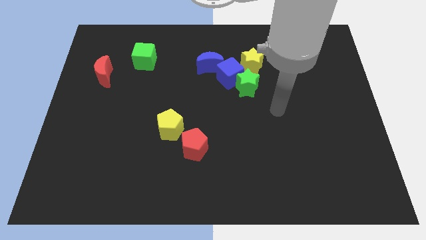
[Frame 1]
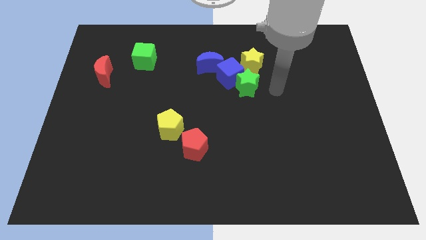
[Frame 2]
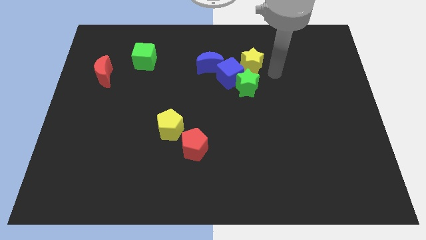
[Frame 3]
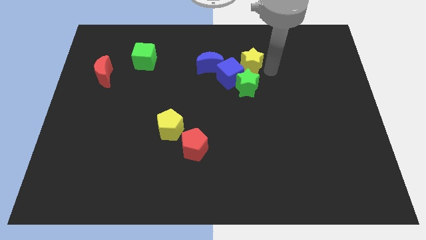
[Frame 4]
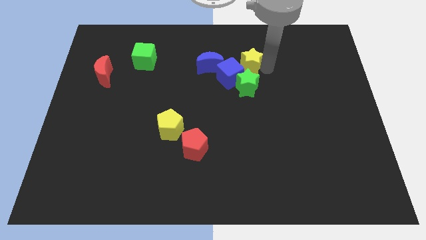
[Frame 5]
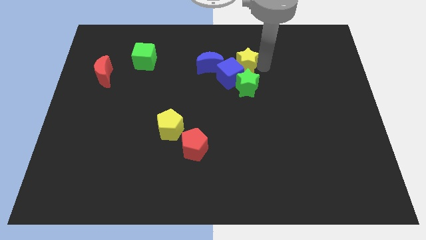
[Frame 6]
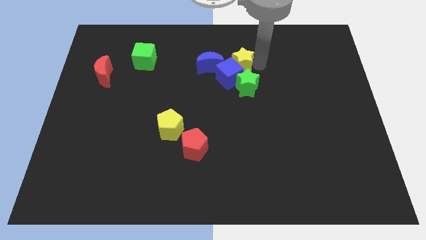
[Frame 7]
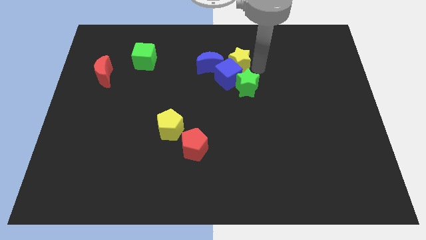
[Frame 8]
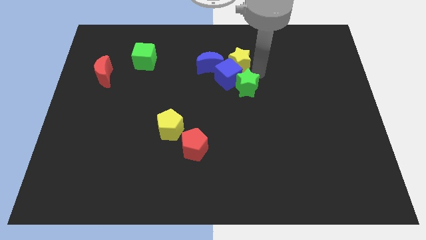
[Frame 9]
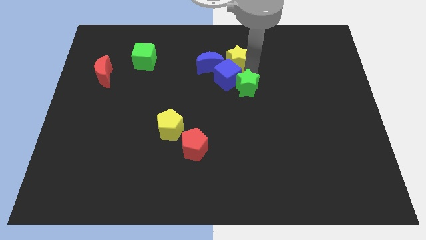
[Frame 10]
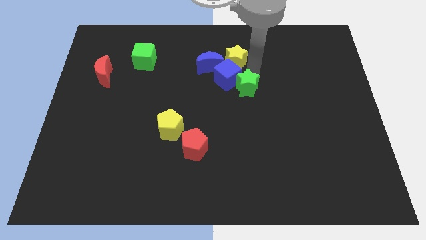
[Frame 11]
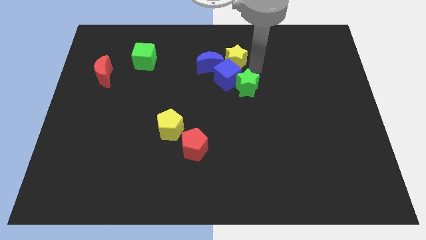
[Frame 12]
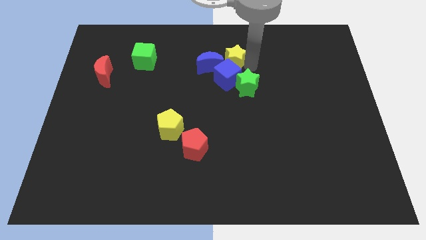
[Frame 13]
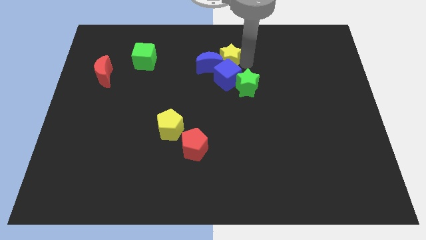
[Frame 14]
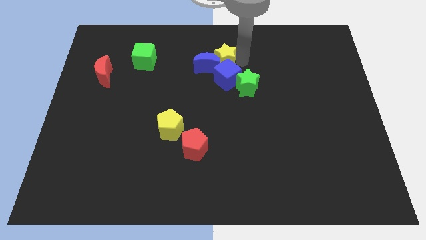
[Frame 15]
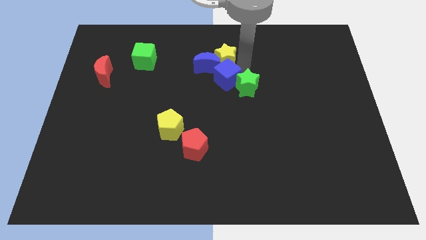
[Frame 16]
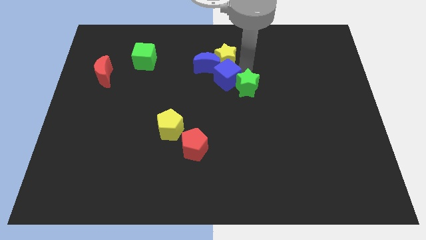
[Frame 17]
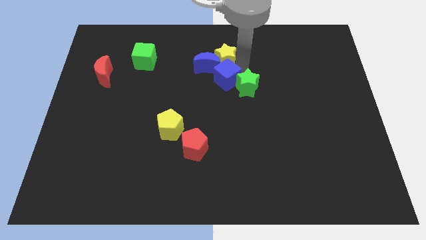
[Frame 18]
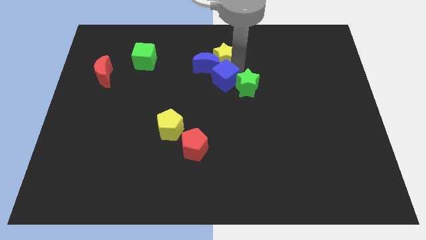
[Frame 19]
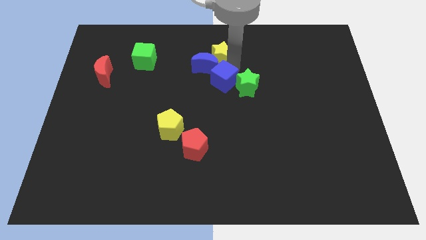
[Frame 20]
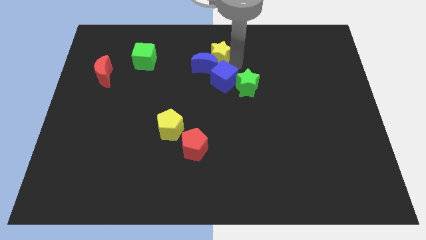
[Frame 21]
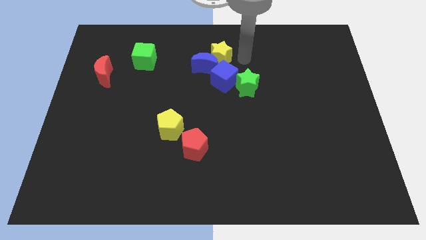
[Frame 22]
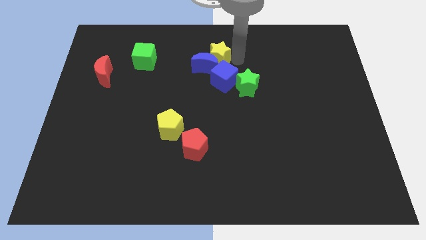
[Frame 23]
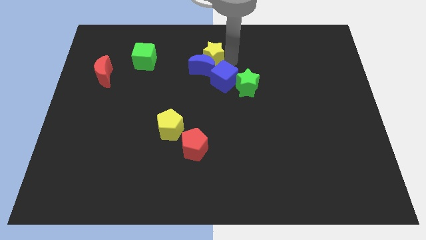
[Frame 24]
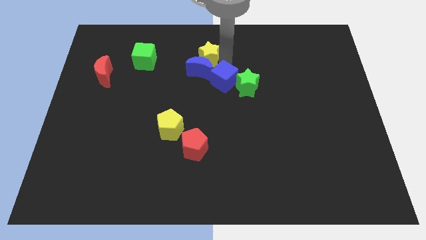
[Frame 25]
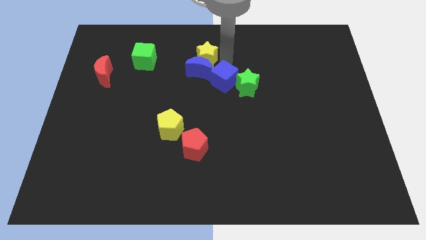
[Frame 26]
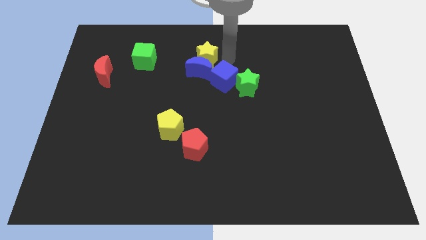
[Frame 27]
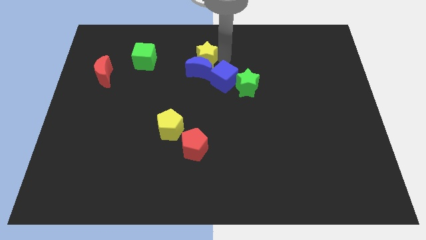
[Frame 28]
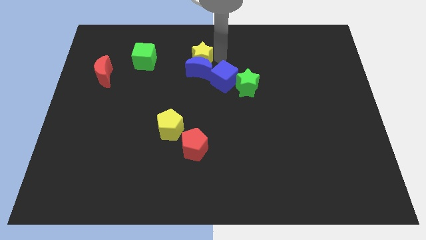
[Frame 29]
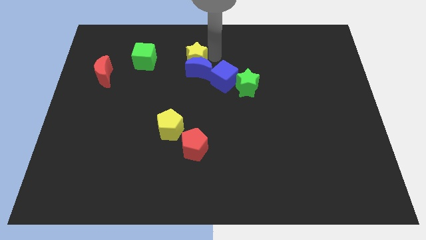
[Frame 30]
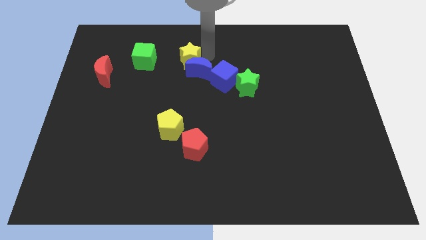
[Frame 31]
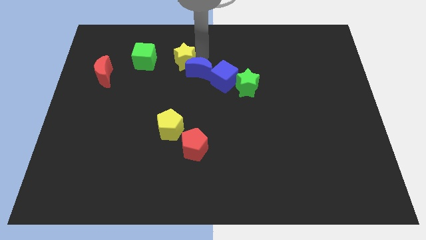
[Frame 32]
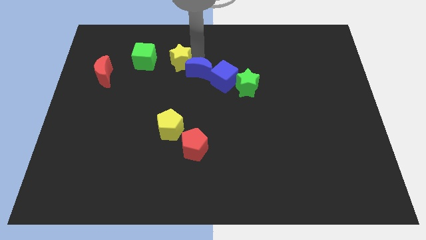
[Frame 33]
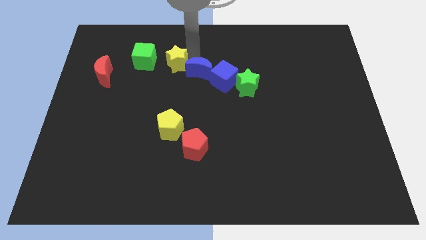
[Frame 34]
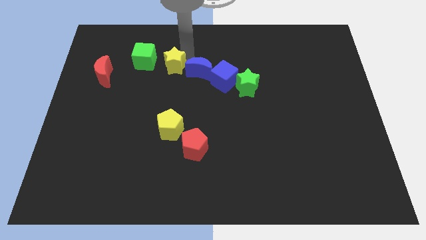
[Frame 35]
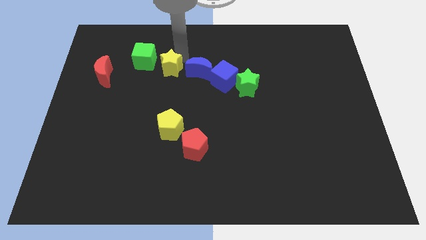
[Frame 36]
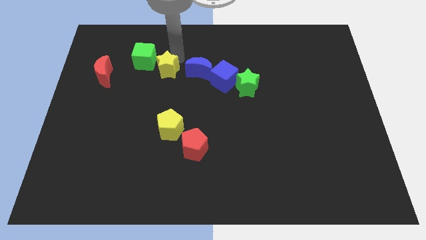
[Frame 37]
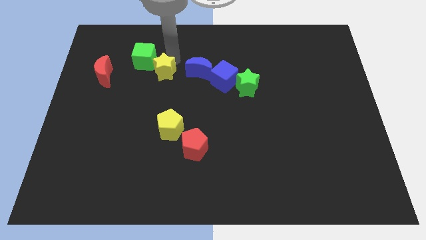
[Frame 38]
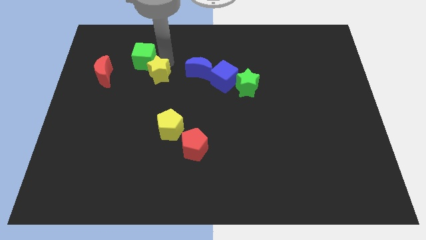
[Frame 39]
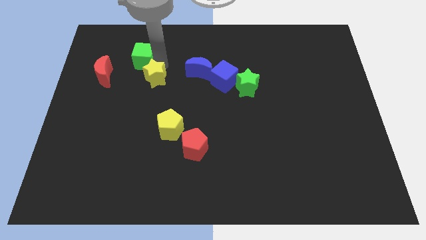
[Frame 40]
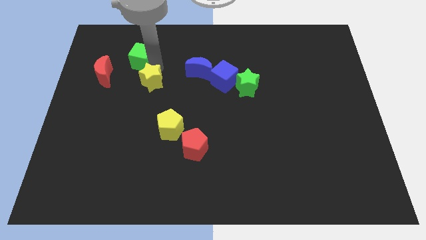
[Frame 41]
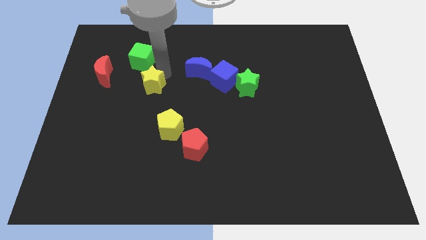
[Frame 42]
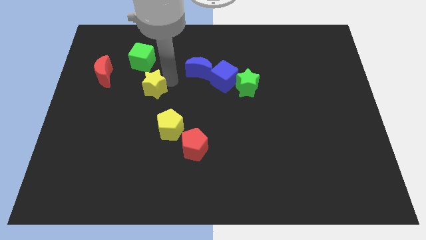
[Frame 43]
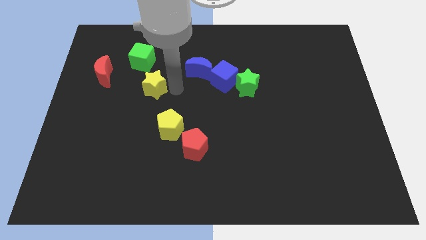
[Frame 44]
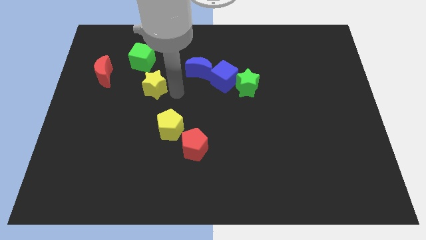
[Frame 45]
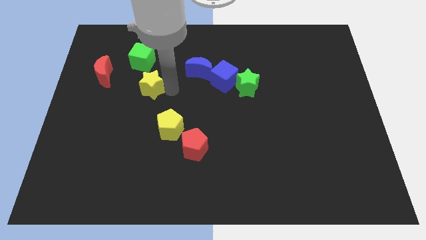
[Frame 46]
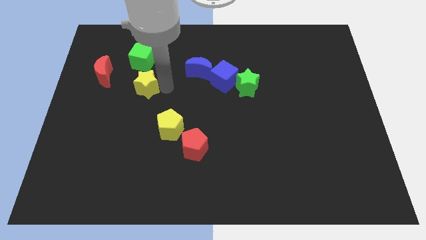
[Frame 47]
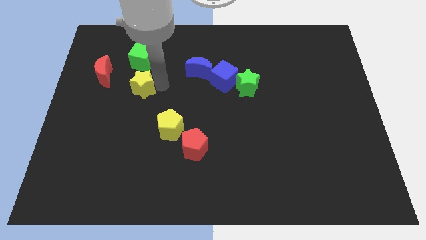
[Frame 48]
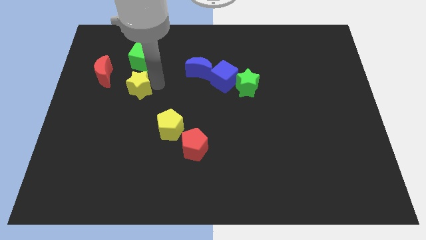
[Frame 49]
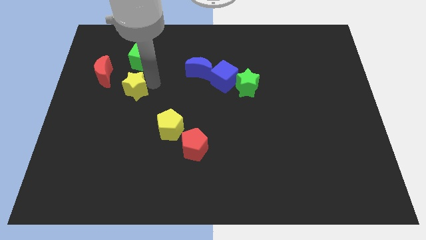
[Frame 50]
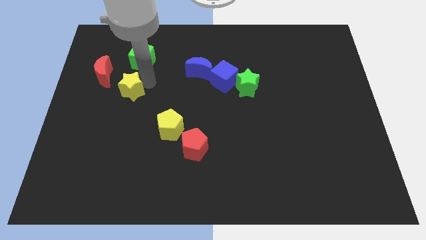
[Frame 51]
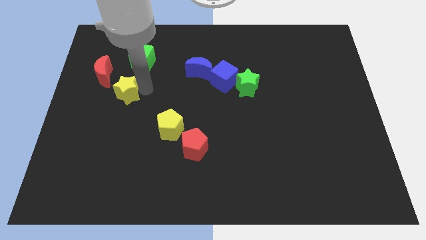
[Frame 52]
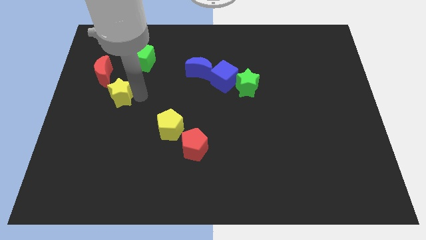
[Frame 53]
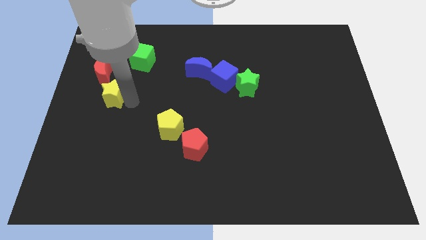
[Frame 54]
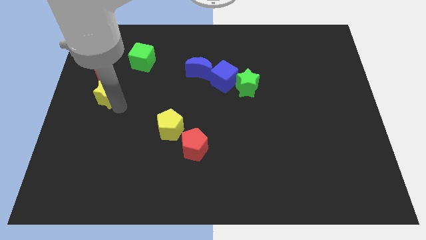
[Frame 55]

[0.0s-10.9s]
put the yellow star to the center left

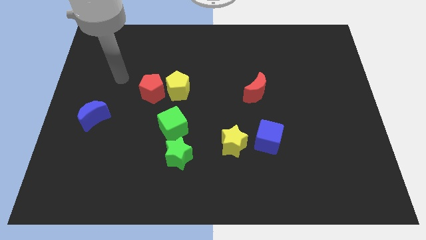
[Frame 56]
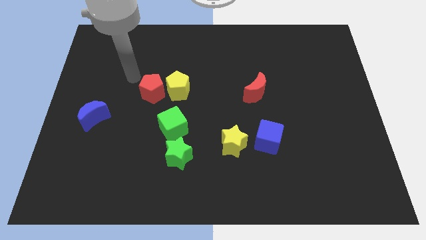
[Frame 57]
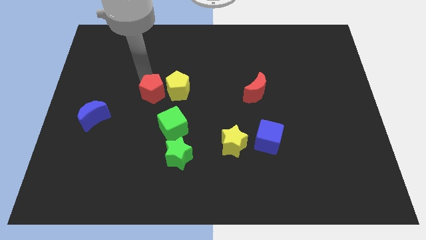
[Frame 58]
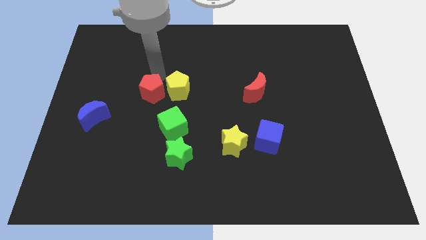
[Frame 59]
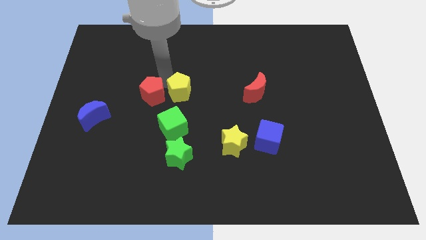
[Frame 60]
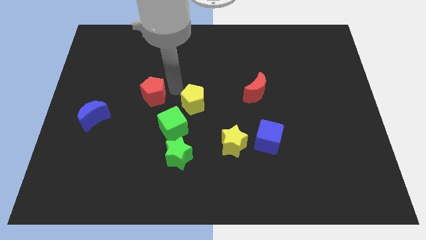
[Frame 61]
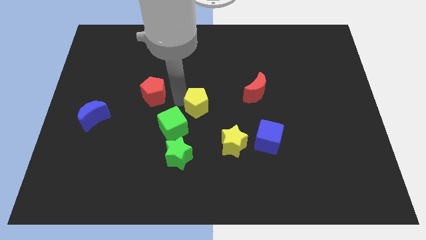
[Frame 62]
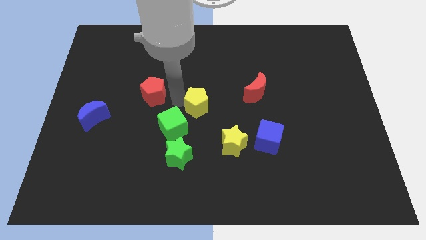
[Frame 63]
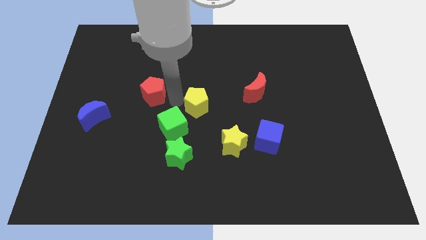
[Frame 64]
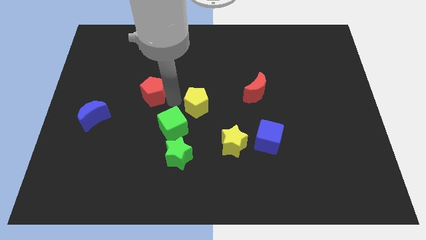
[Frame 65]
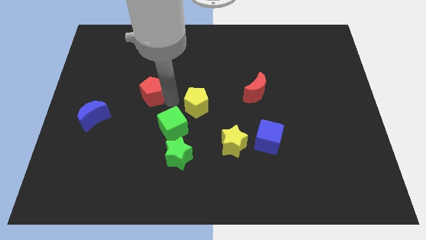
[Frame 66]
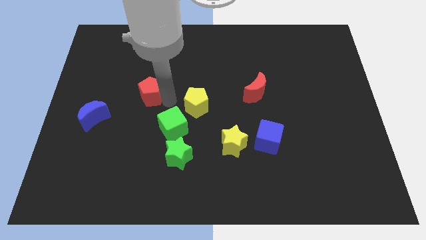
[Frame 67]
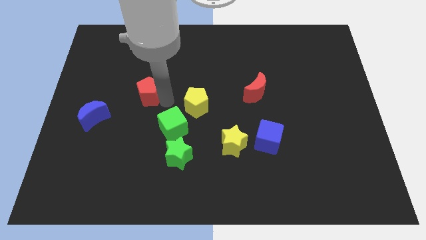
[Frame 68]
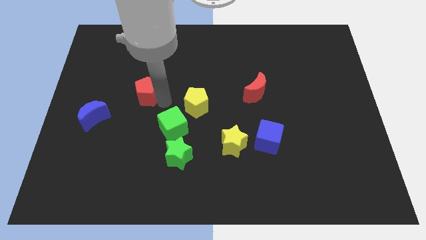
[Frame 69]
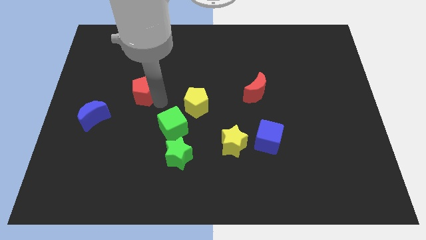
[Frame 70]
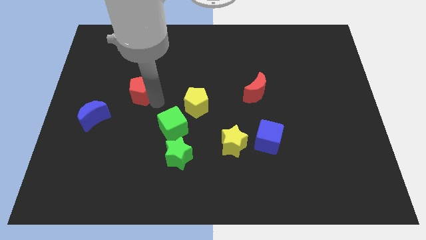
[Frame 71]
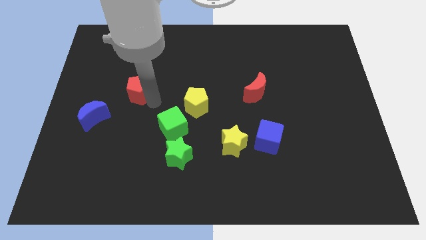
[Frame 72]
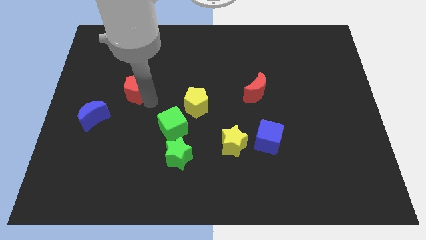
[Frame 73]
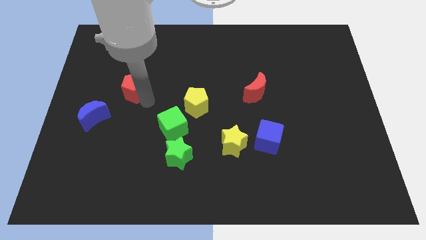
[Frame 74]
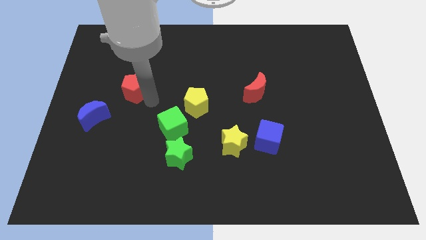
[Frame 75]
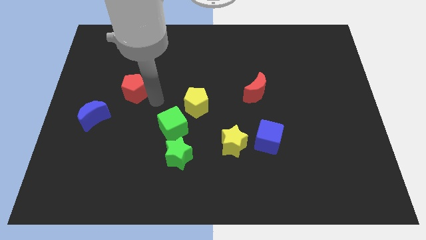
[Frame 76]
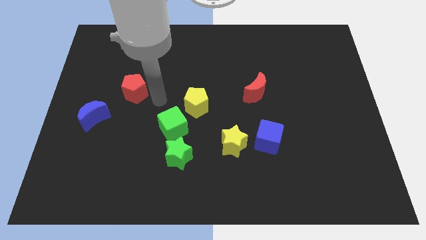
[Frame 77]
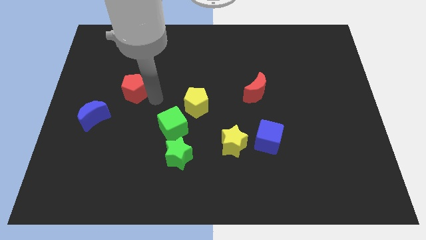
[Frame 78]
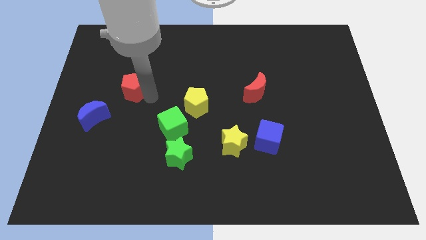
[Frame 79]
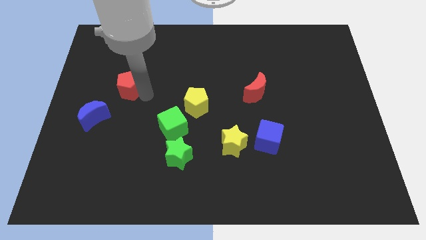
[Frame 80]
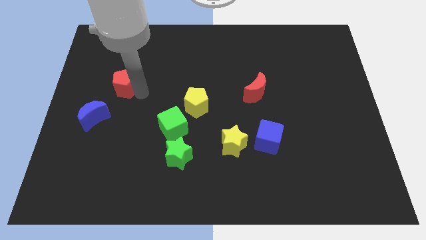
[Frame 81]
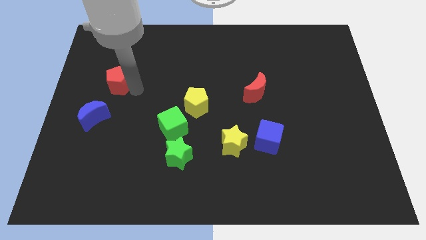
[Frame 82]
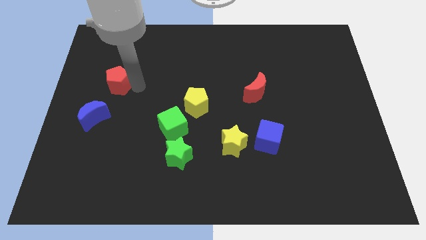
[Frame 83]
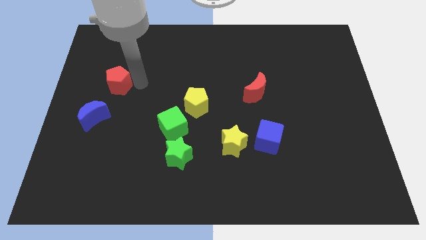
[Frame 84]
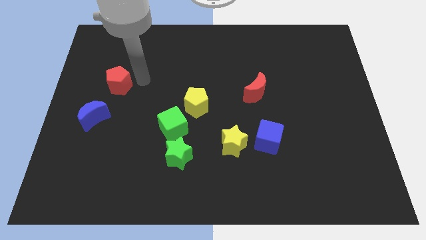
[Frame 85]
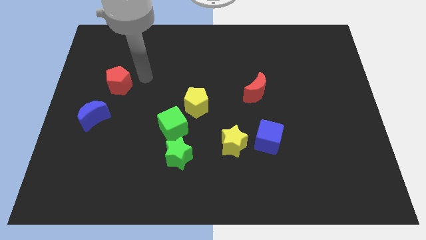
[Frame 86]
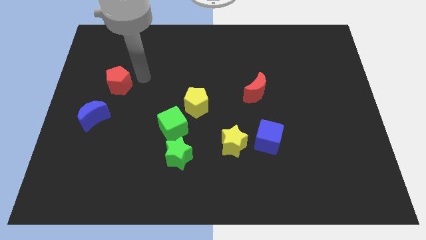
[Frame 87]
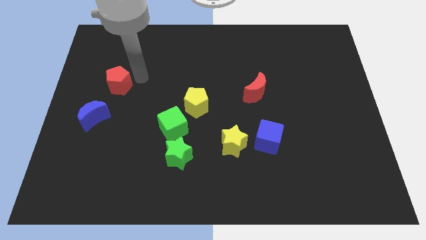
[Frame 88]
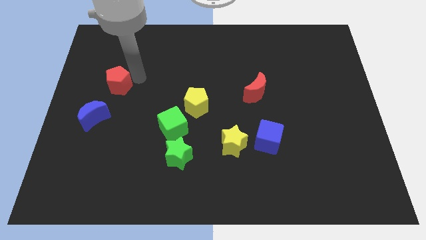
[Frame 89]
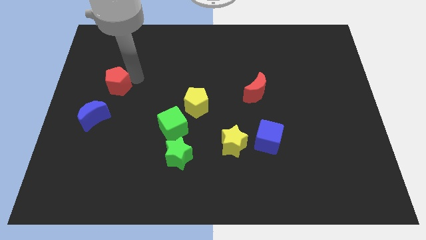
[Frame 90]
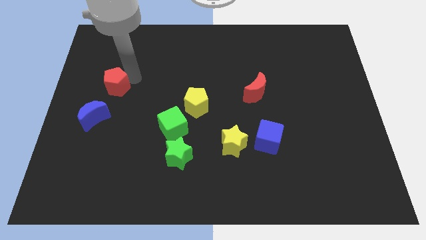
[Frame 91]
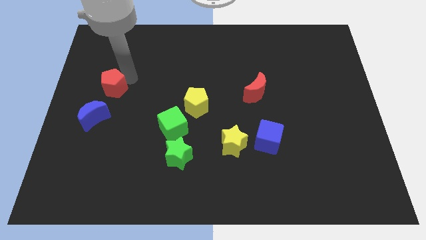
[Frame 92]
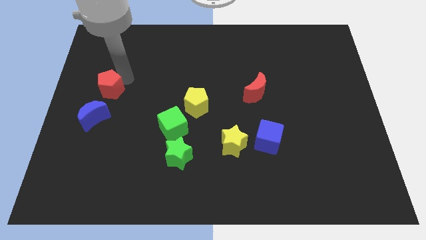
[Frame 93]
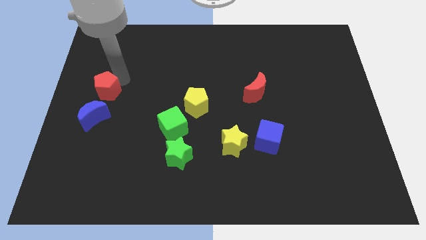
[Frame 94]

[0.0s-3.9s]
push the red pentagon to the center left
